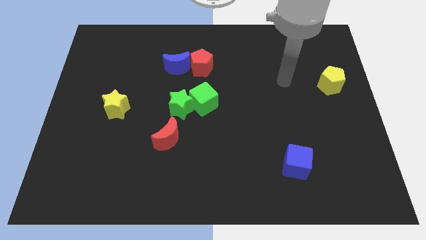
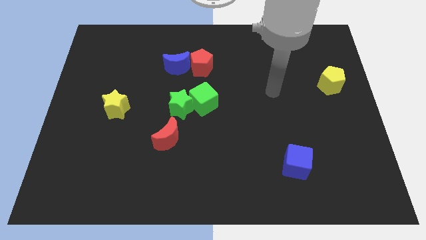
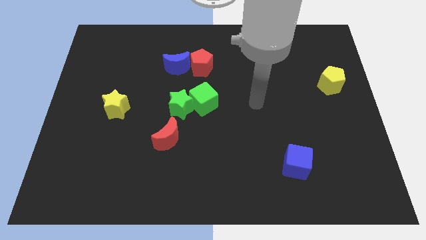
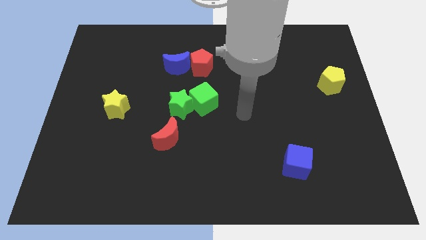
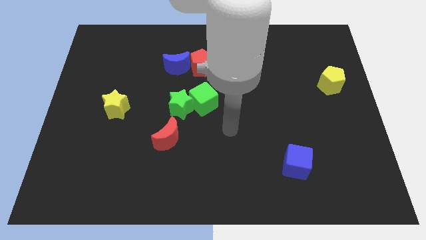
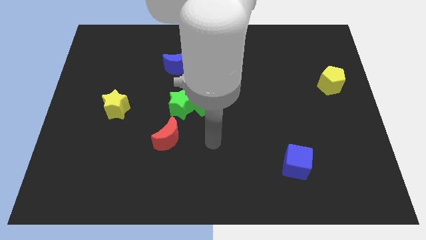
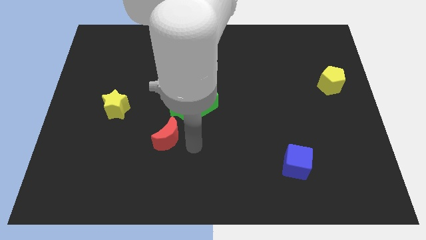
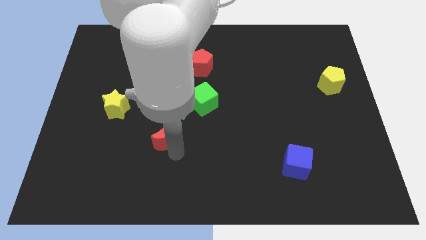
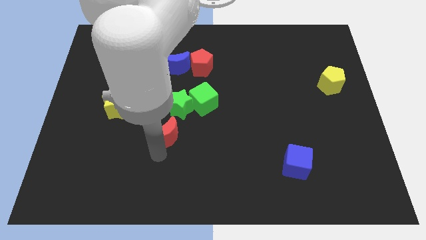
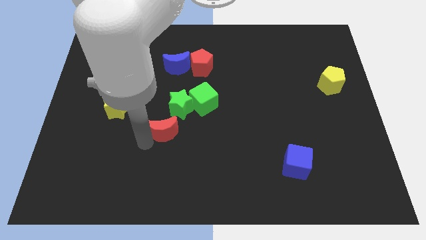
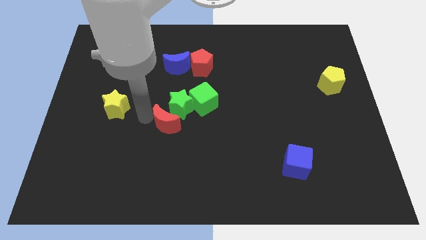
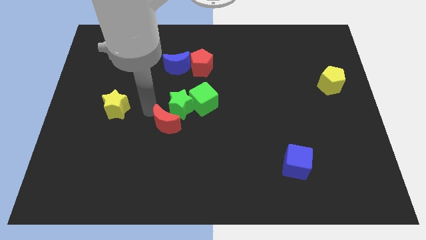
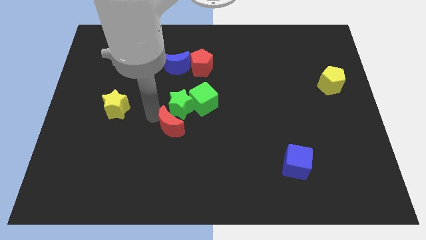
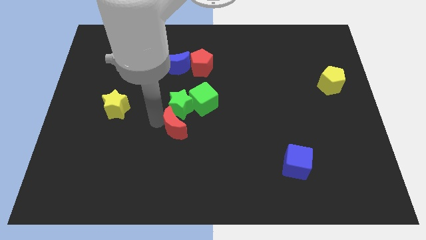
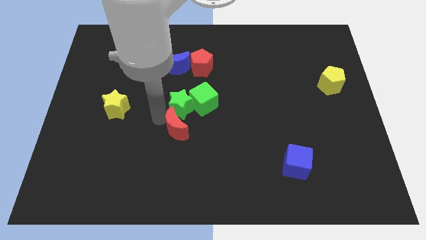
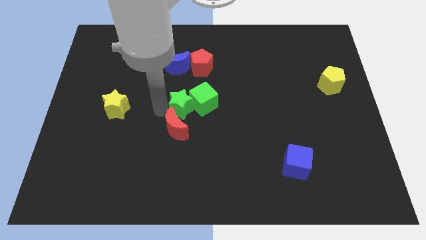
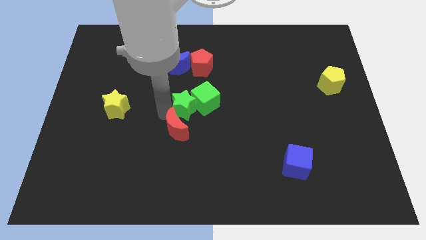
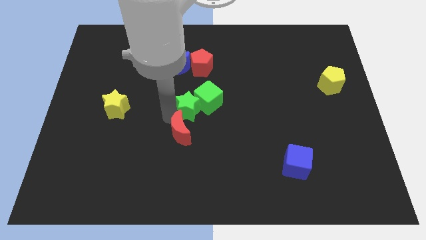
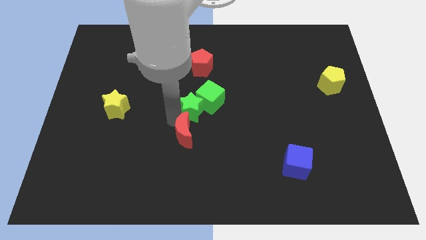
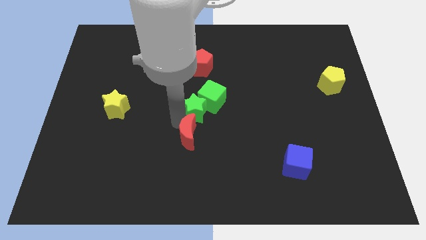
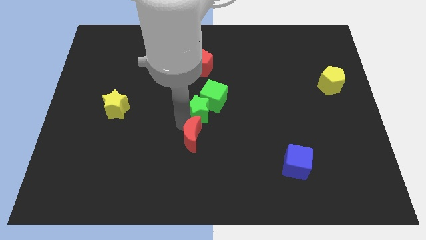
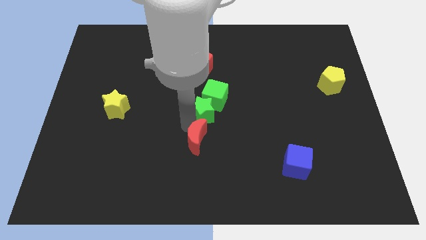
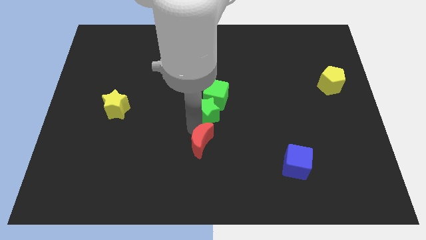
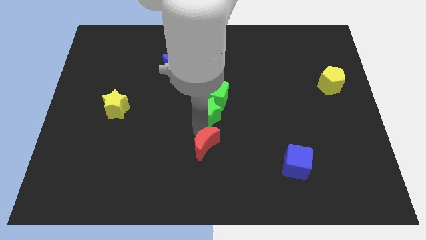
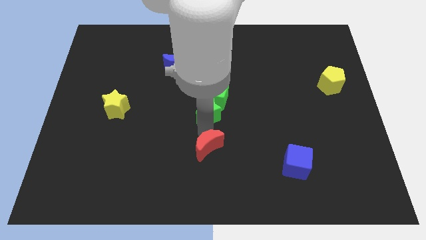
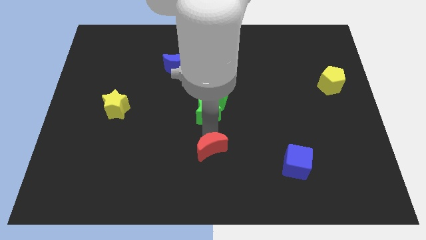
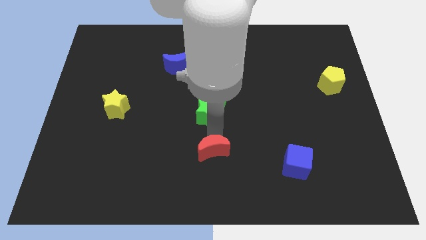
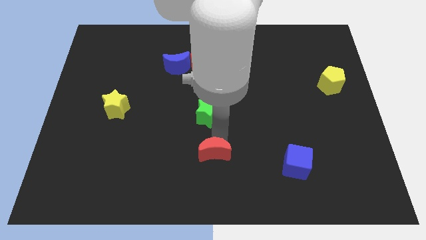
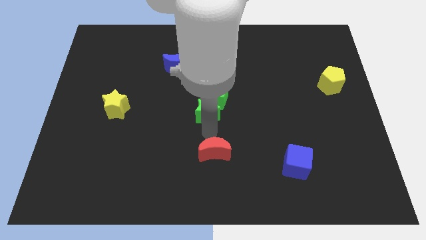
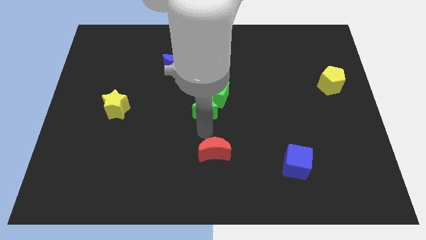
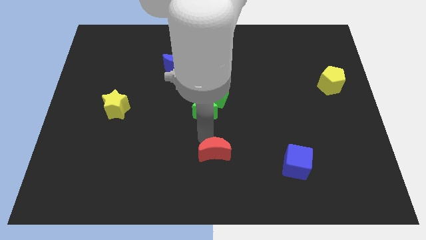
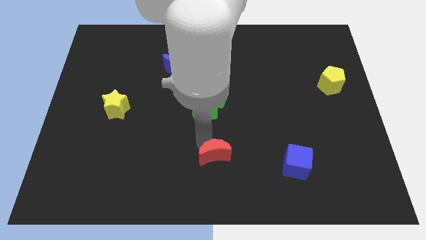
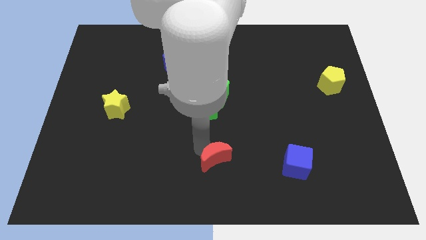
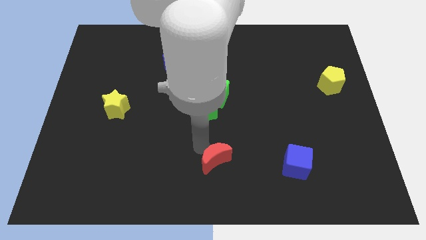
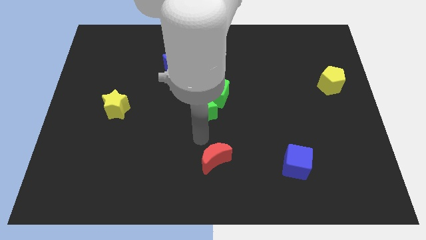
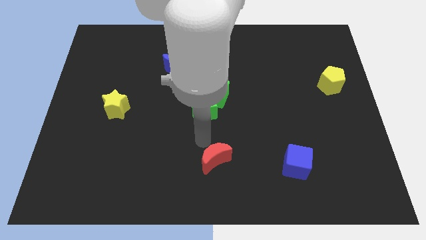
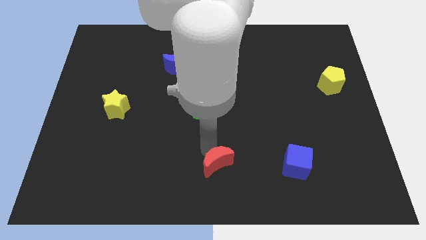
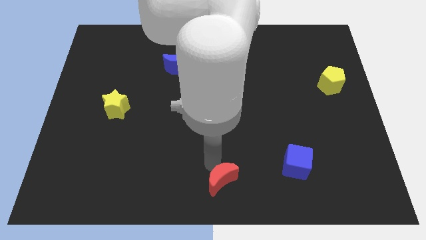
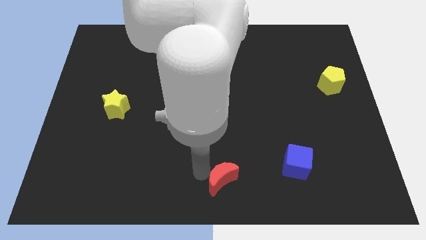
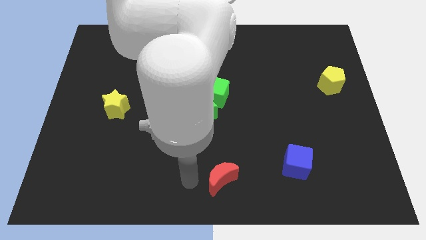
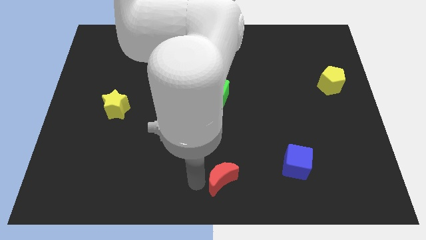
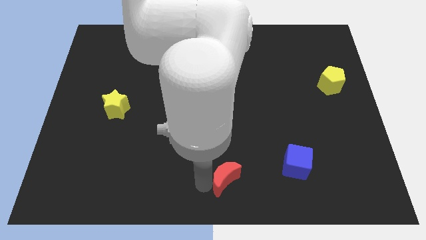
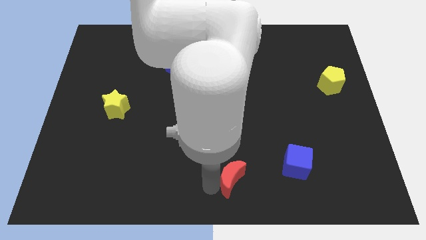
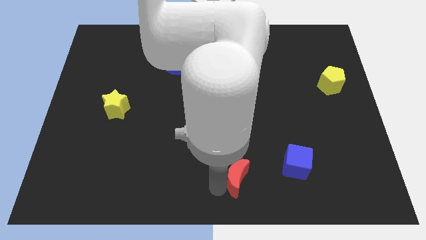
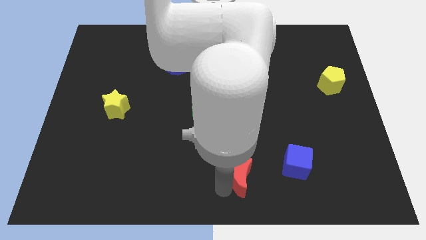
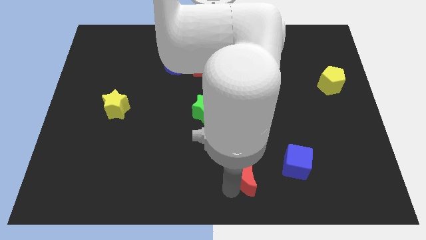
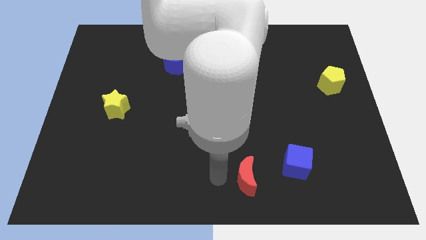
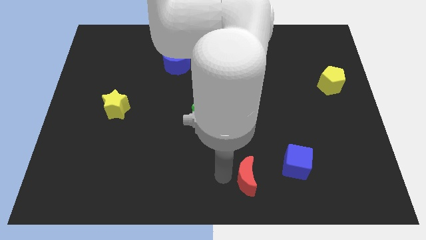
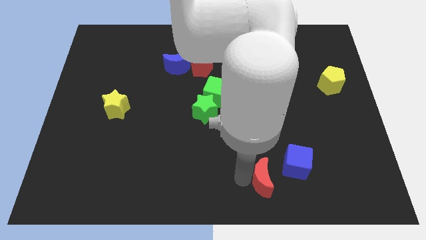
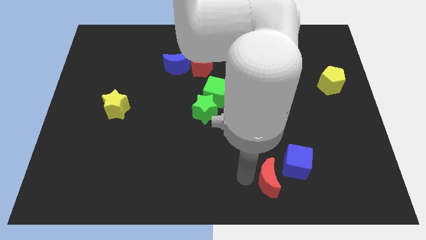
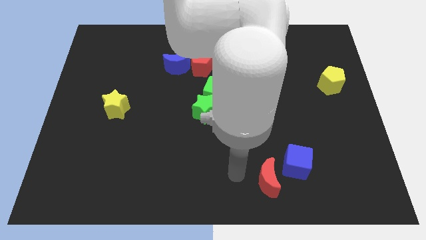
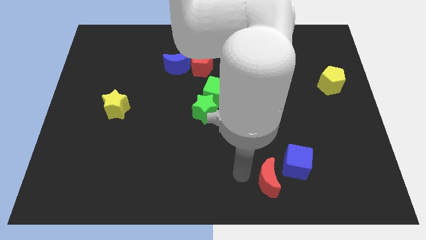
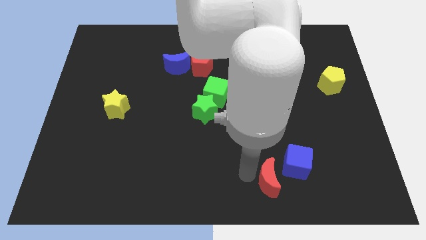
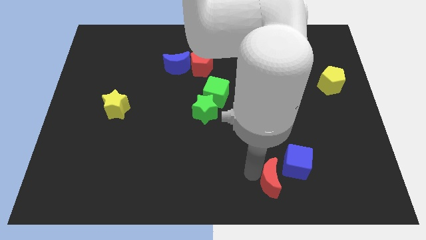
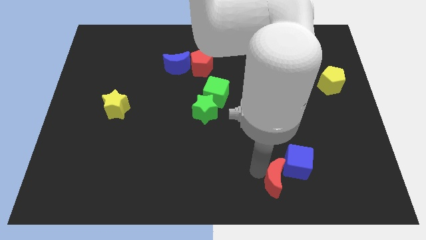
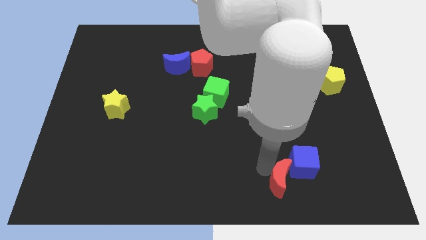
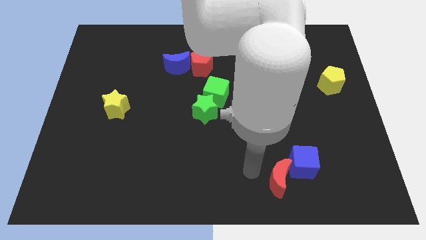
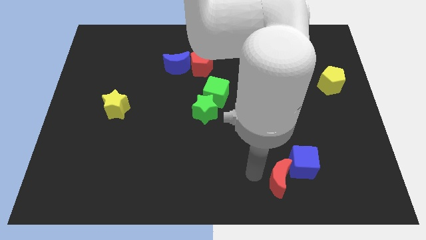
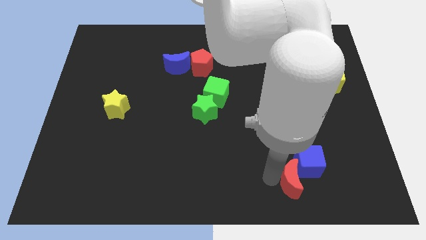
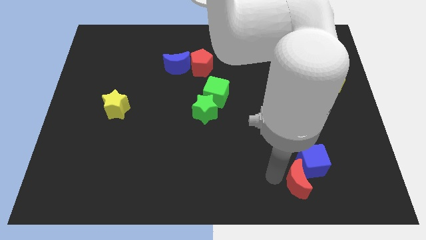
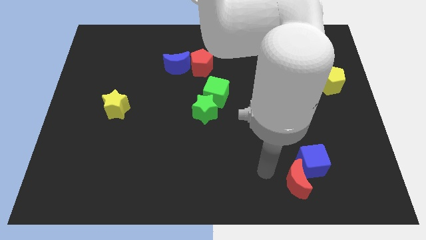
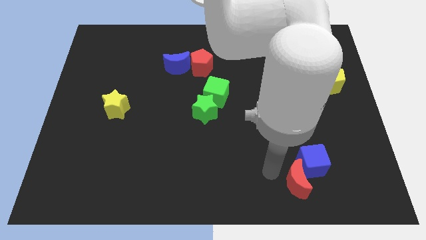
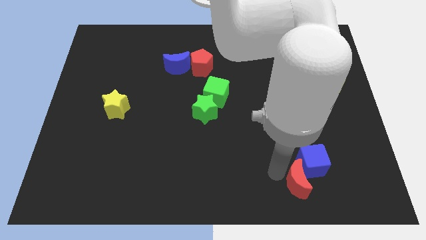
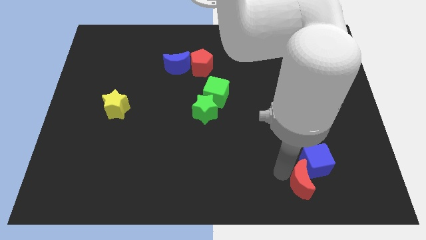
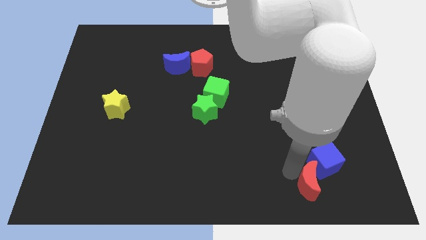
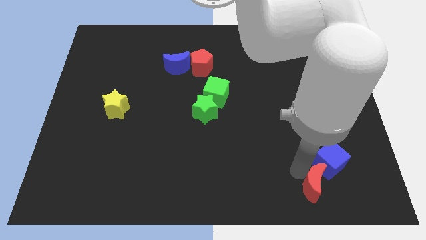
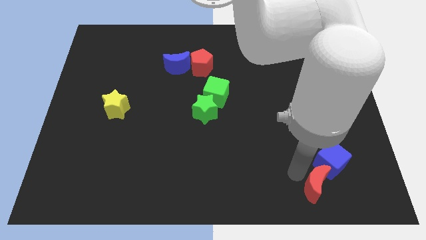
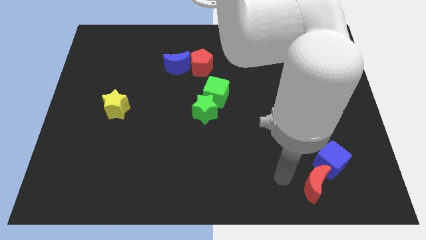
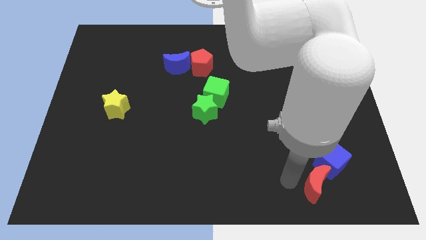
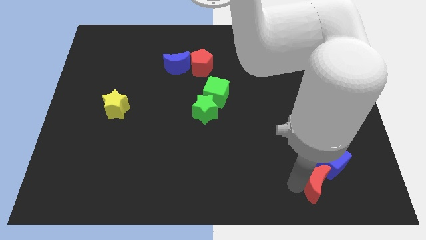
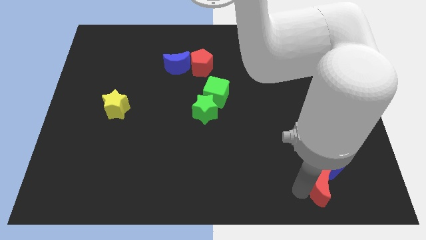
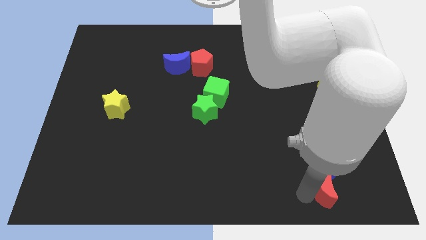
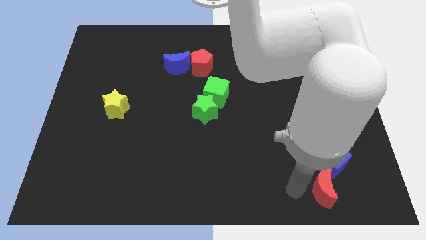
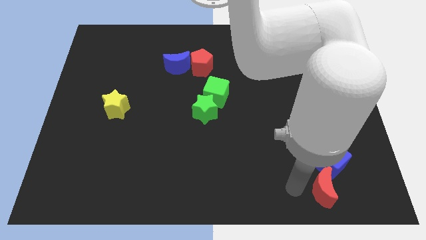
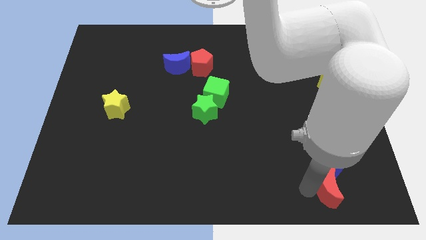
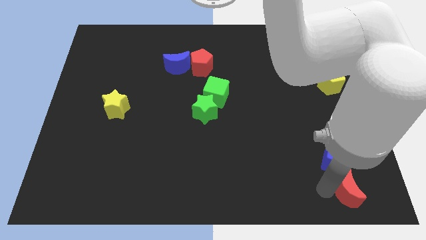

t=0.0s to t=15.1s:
put the red moon to the bottom right
